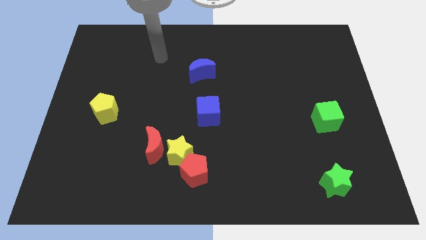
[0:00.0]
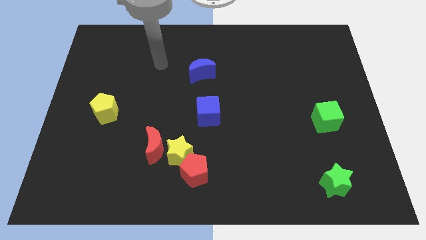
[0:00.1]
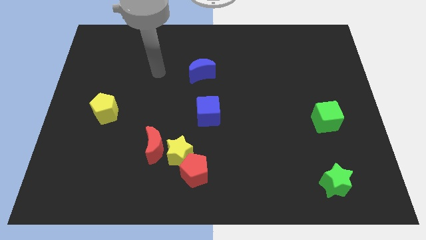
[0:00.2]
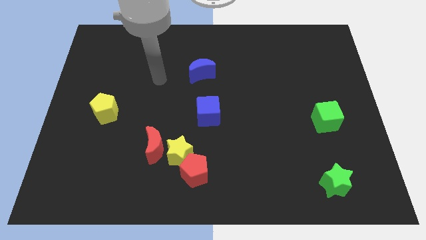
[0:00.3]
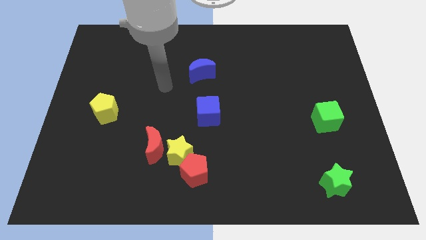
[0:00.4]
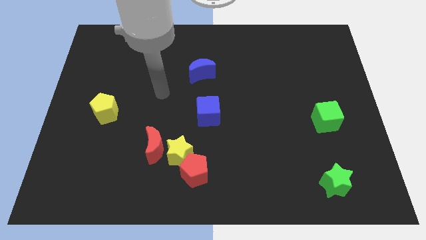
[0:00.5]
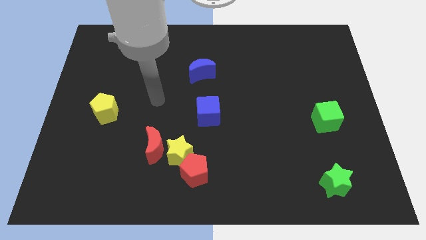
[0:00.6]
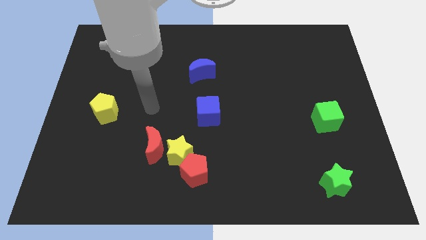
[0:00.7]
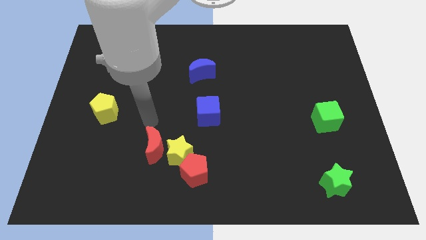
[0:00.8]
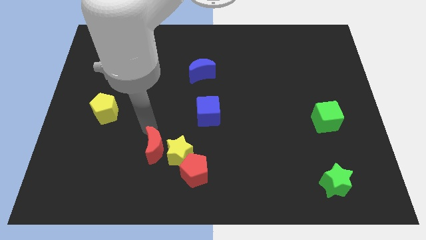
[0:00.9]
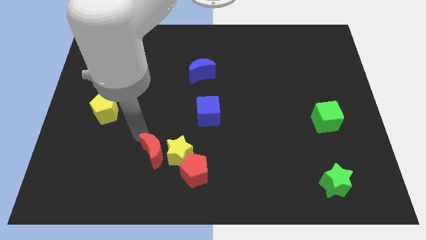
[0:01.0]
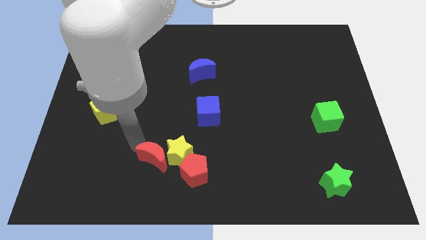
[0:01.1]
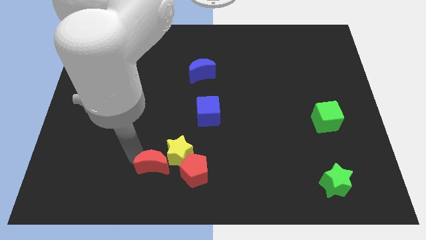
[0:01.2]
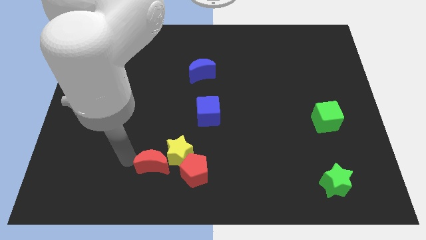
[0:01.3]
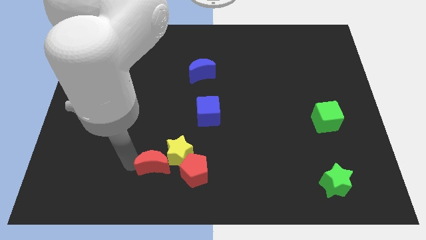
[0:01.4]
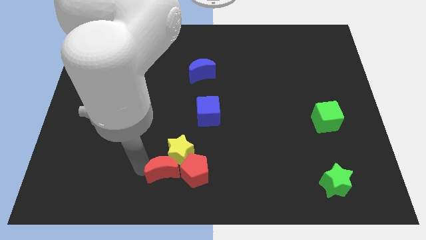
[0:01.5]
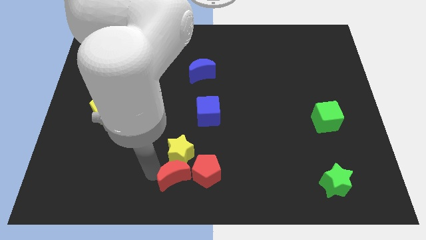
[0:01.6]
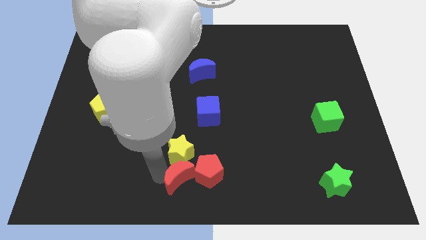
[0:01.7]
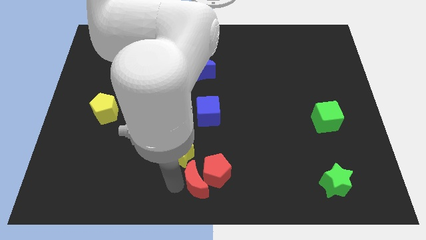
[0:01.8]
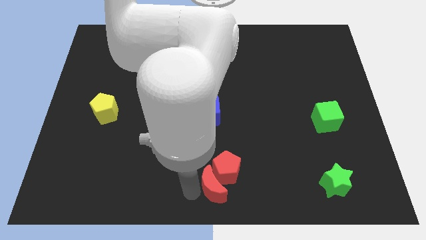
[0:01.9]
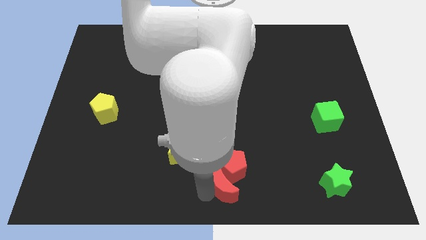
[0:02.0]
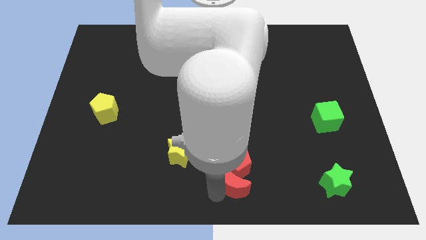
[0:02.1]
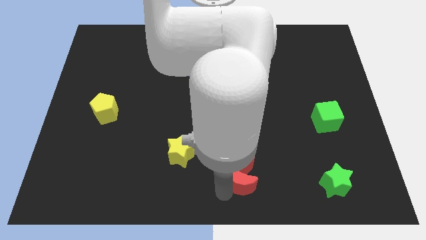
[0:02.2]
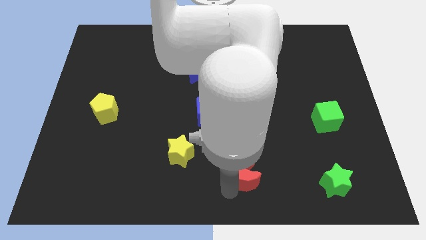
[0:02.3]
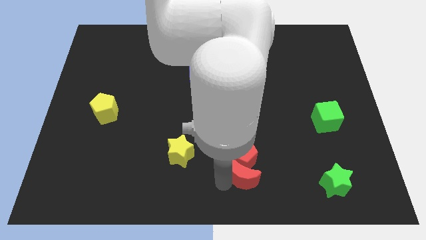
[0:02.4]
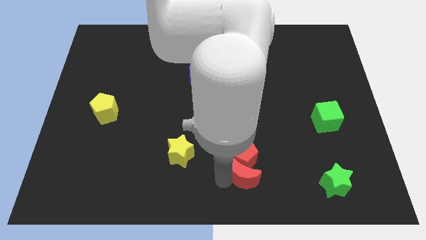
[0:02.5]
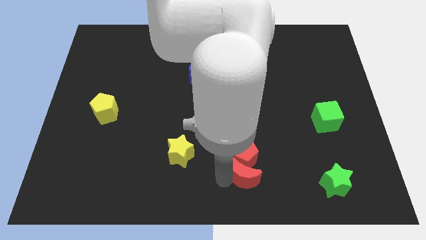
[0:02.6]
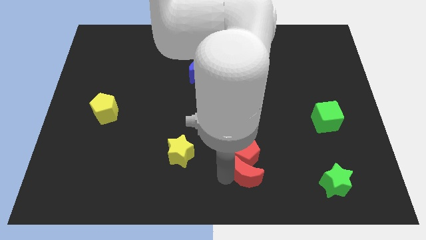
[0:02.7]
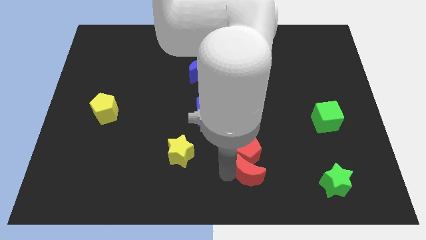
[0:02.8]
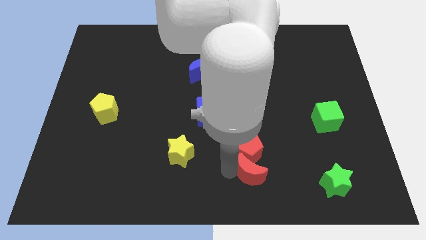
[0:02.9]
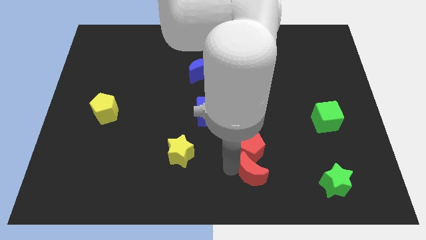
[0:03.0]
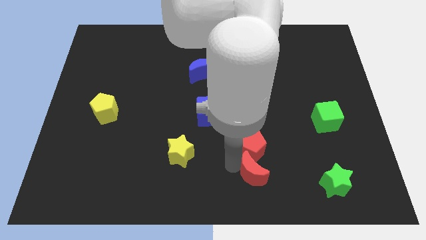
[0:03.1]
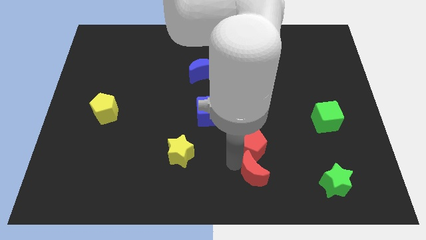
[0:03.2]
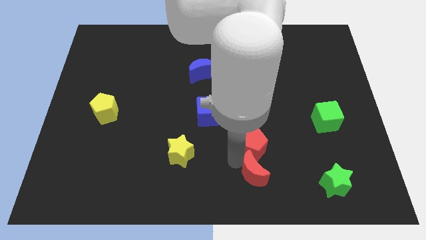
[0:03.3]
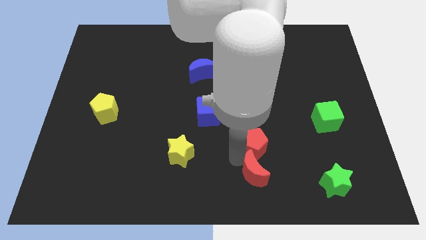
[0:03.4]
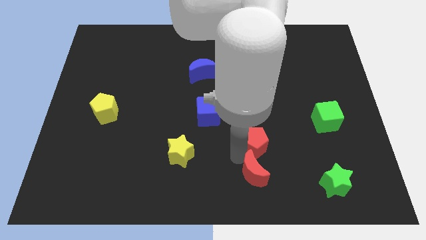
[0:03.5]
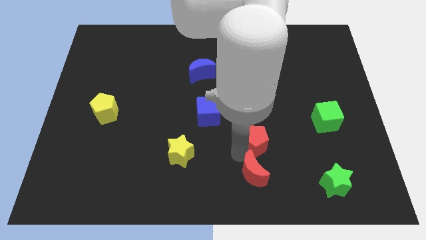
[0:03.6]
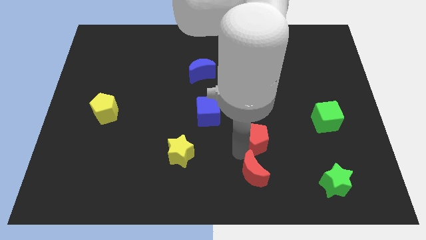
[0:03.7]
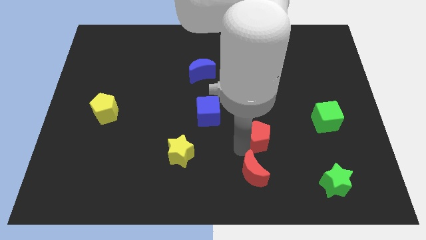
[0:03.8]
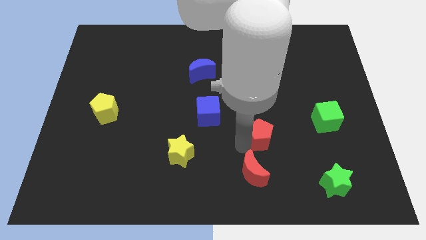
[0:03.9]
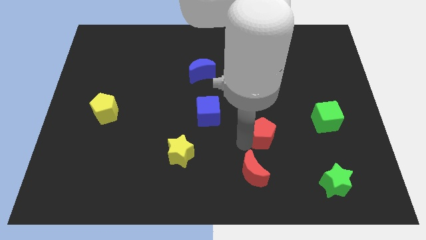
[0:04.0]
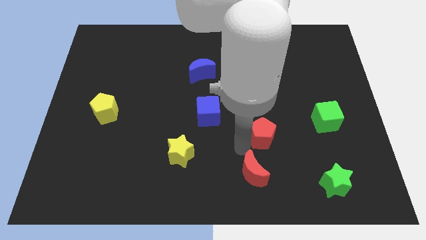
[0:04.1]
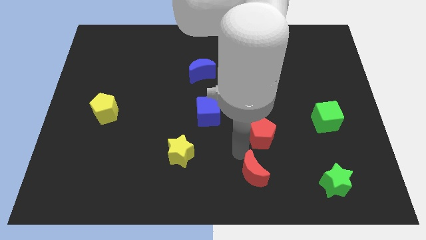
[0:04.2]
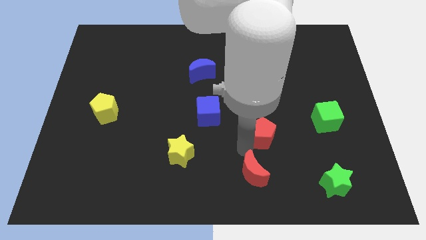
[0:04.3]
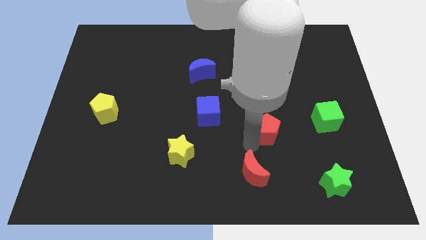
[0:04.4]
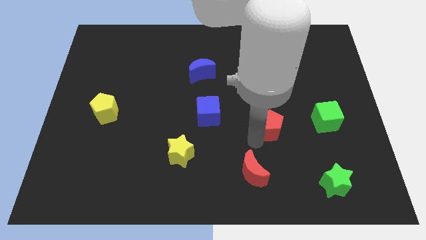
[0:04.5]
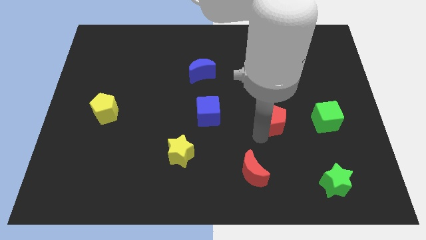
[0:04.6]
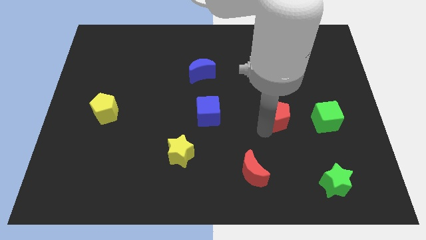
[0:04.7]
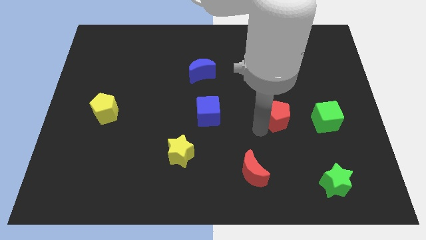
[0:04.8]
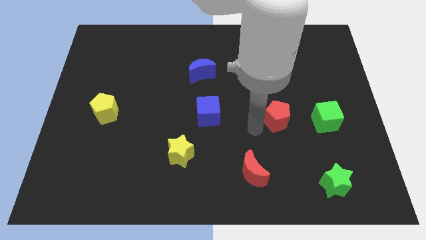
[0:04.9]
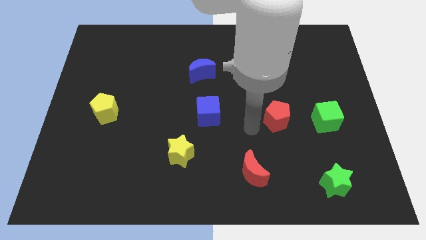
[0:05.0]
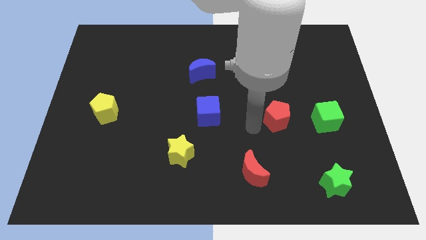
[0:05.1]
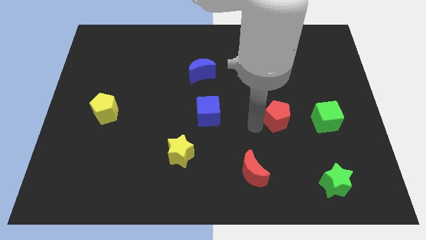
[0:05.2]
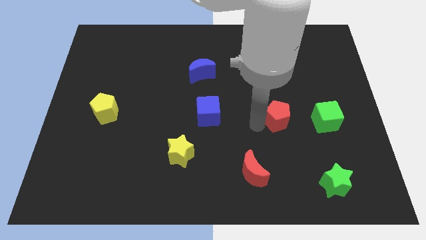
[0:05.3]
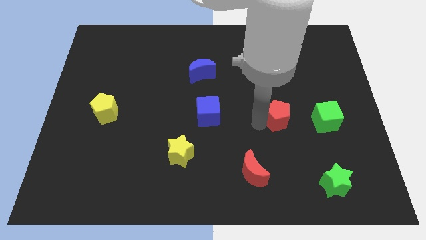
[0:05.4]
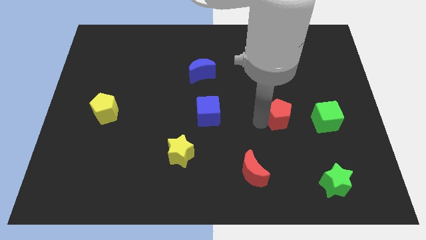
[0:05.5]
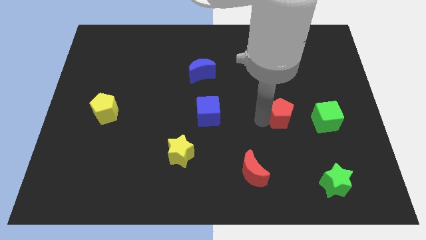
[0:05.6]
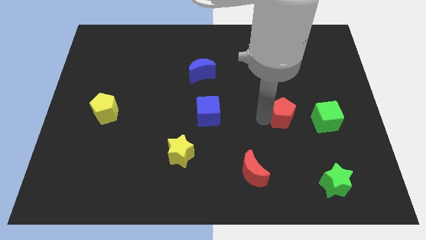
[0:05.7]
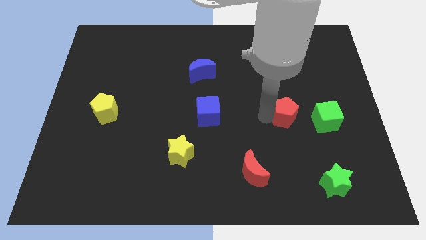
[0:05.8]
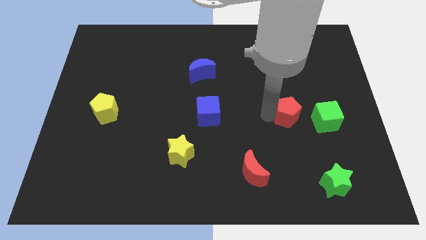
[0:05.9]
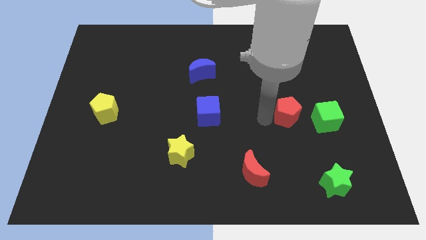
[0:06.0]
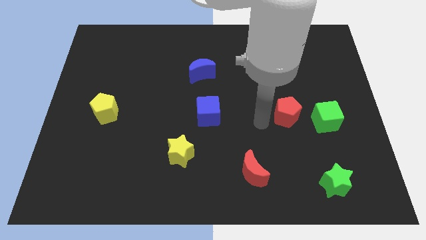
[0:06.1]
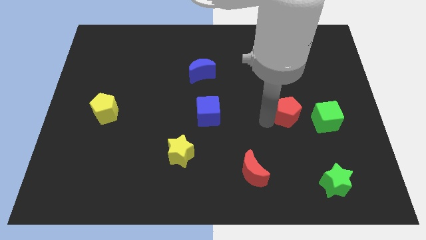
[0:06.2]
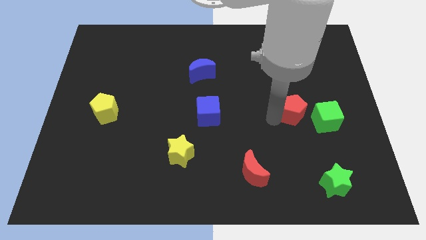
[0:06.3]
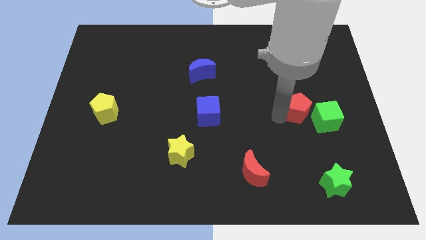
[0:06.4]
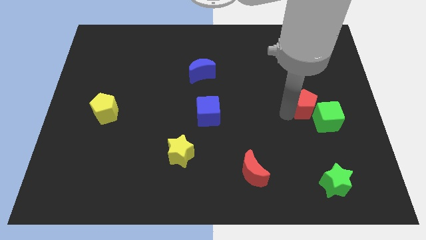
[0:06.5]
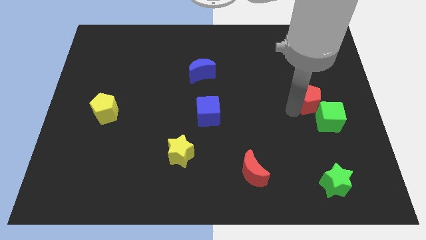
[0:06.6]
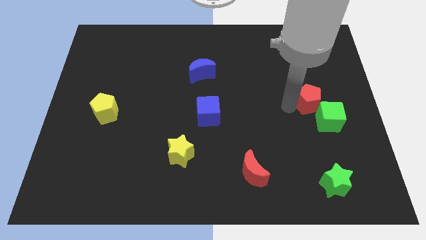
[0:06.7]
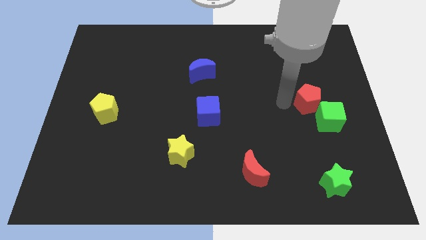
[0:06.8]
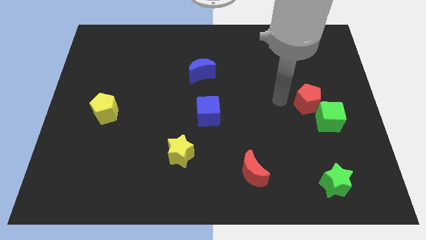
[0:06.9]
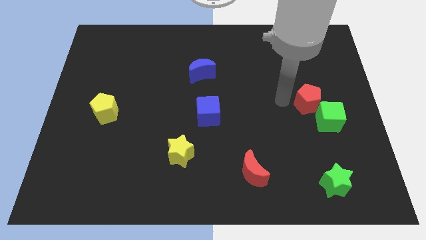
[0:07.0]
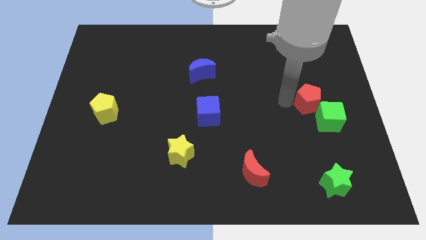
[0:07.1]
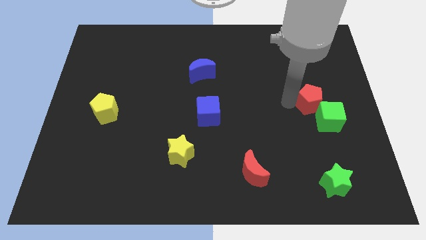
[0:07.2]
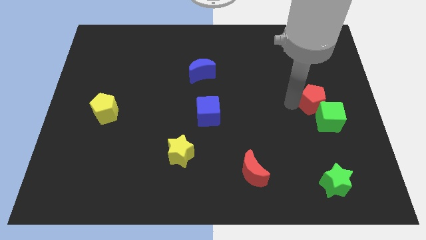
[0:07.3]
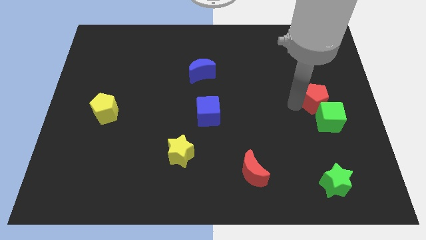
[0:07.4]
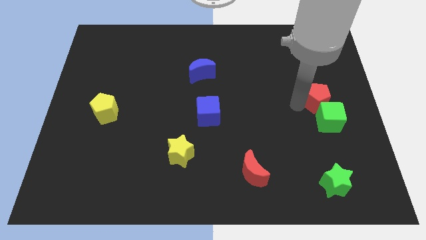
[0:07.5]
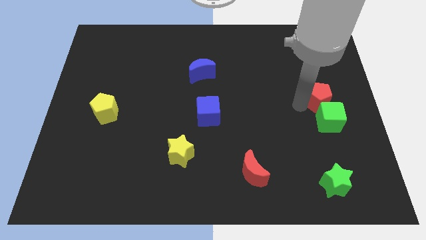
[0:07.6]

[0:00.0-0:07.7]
push the red pentagon to the right side

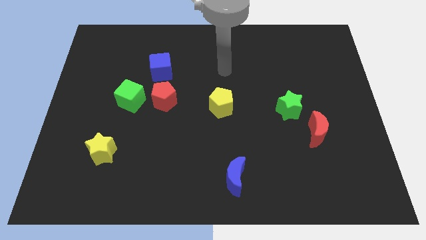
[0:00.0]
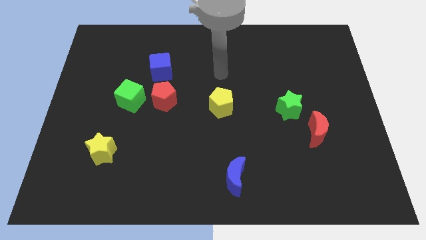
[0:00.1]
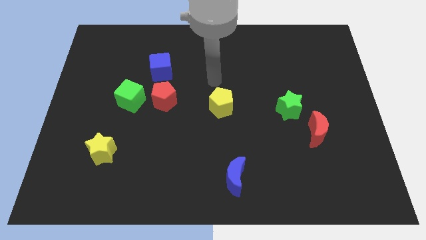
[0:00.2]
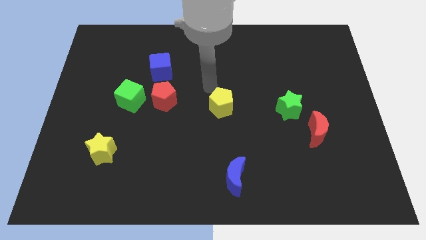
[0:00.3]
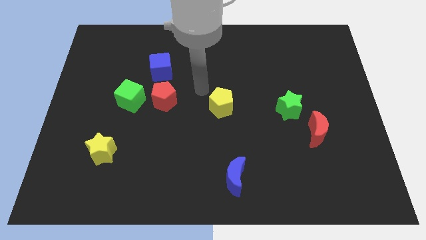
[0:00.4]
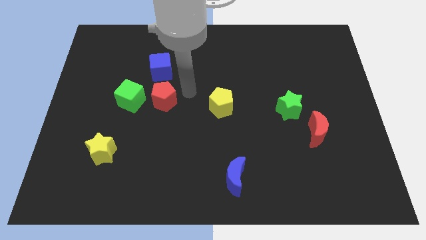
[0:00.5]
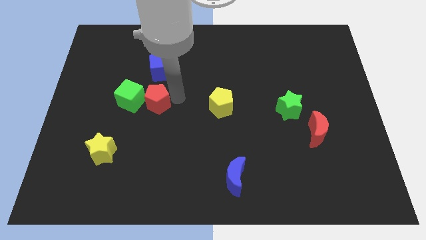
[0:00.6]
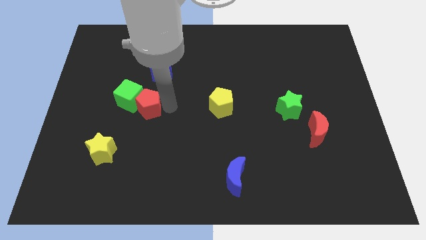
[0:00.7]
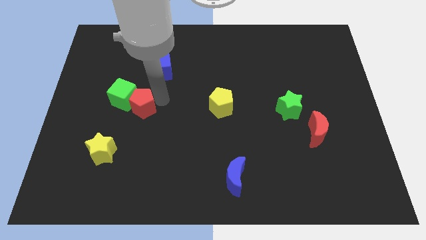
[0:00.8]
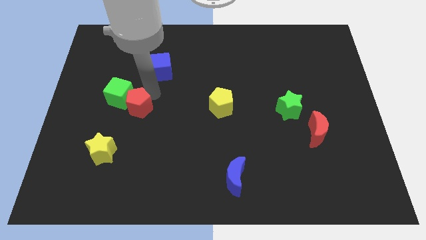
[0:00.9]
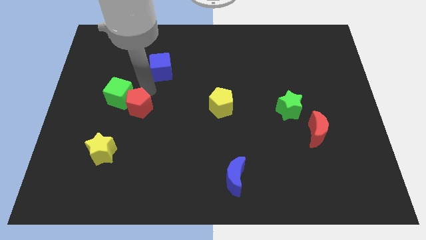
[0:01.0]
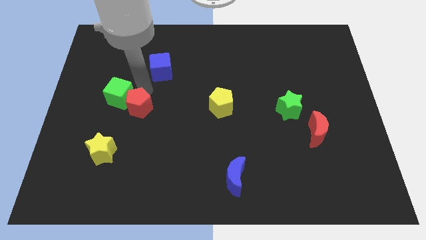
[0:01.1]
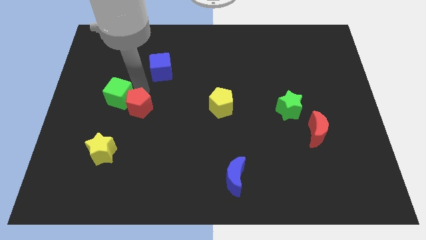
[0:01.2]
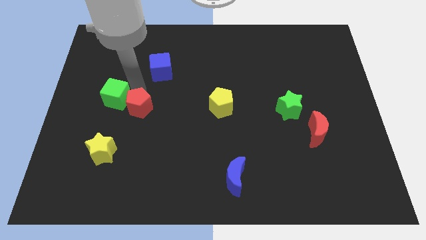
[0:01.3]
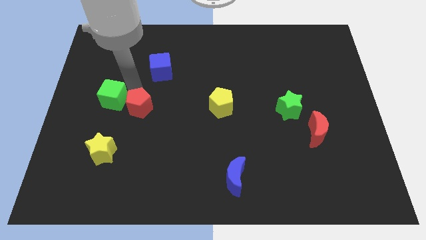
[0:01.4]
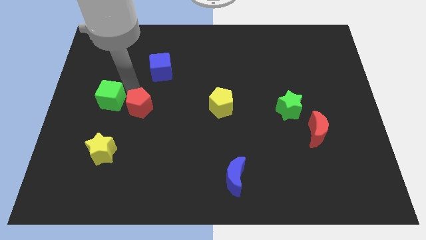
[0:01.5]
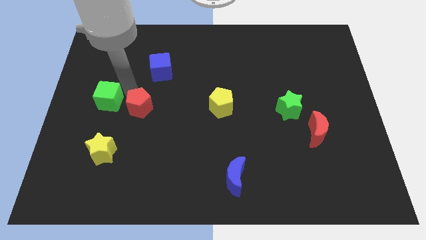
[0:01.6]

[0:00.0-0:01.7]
put the green cube to the left side
